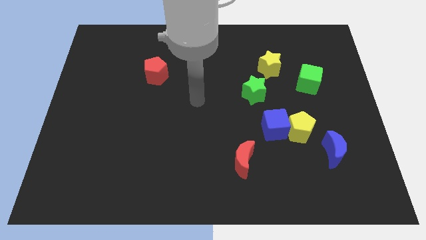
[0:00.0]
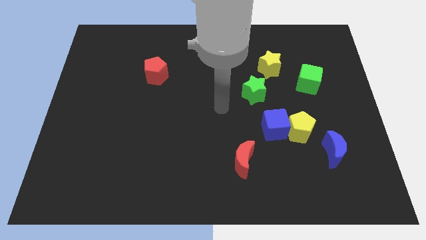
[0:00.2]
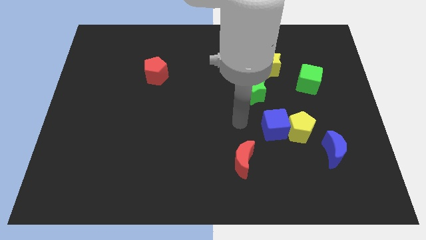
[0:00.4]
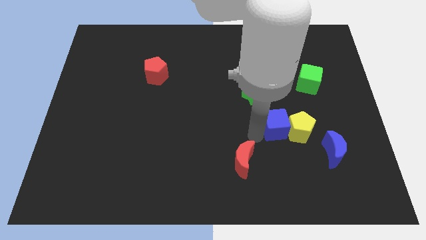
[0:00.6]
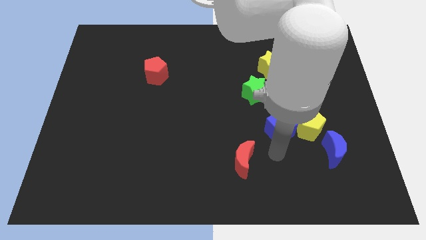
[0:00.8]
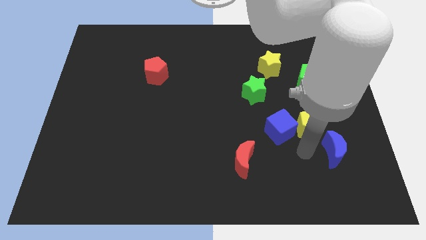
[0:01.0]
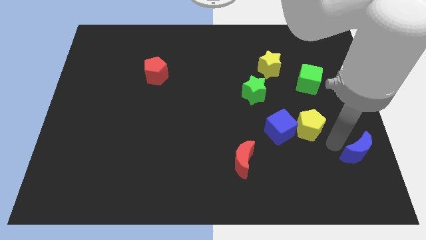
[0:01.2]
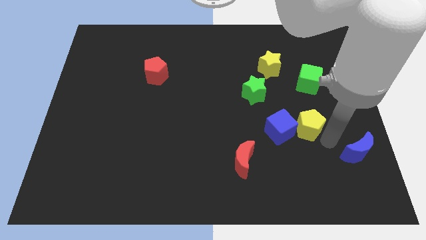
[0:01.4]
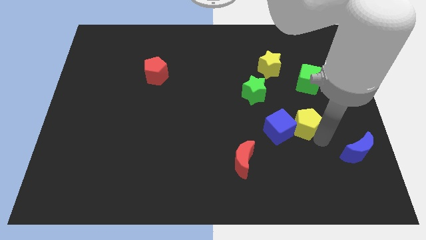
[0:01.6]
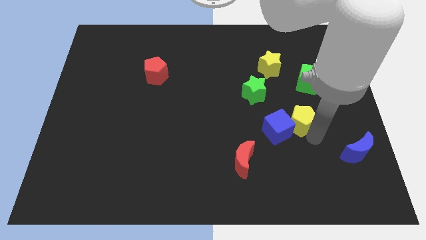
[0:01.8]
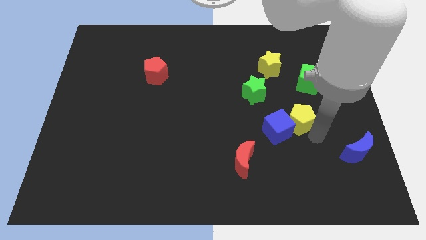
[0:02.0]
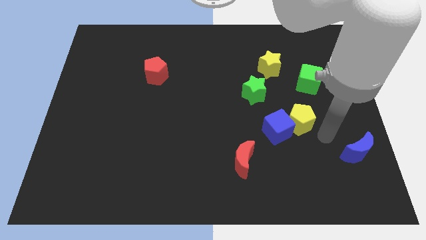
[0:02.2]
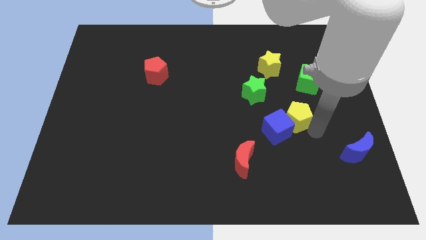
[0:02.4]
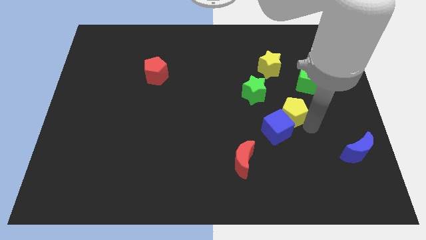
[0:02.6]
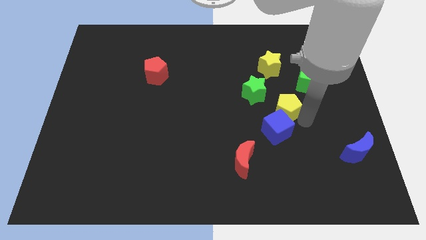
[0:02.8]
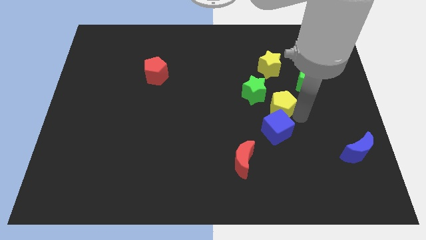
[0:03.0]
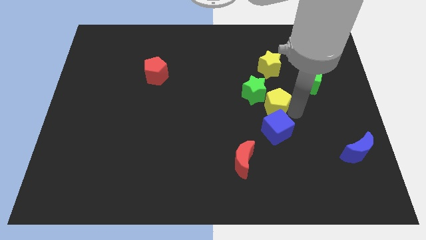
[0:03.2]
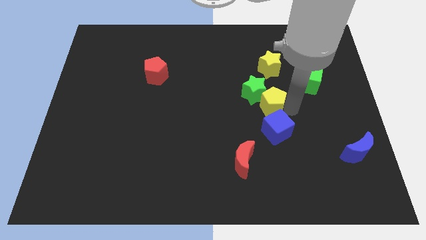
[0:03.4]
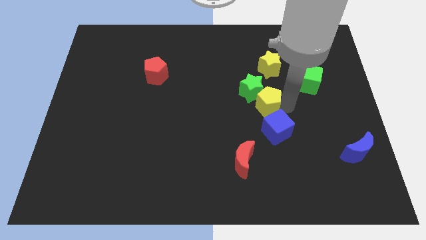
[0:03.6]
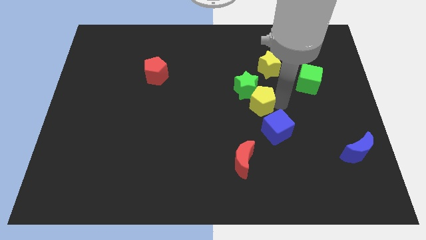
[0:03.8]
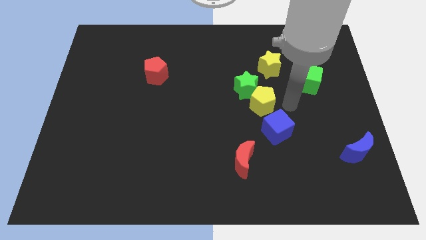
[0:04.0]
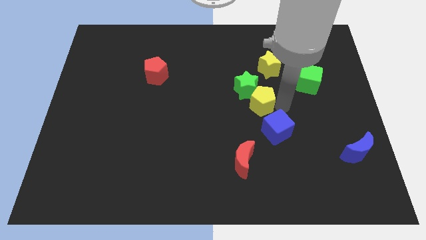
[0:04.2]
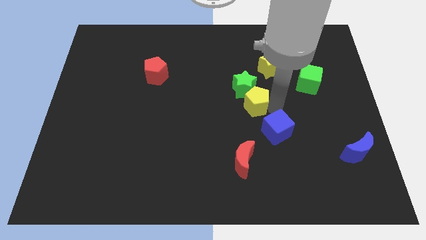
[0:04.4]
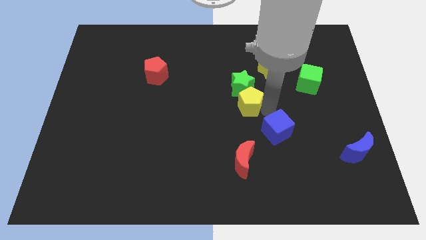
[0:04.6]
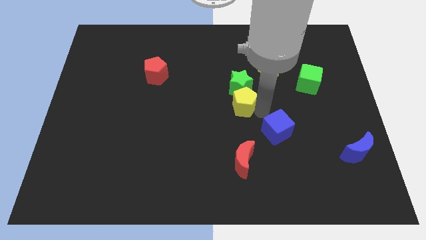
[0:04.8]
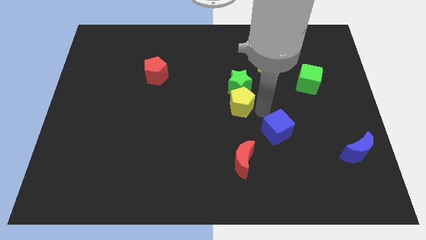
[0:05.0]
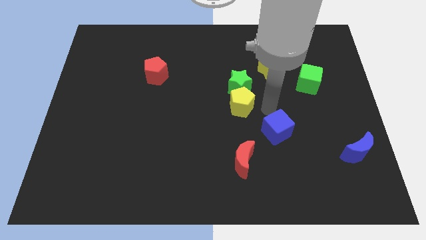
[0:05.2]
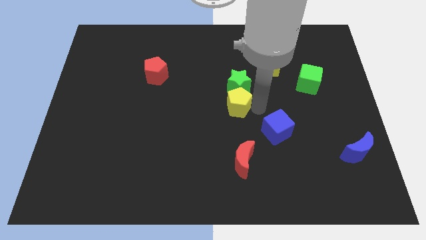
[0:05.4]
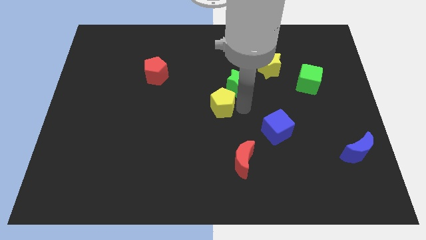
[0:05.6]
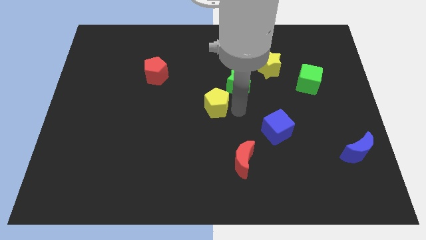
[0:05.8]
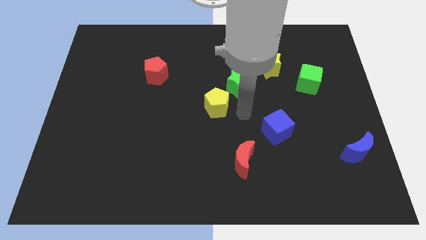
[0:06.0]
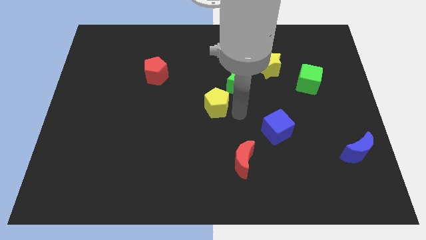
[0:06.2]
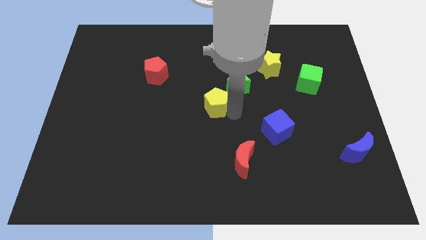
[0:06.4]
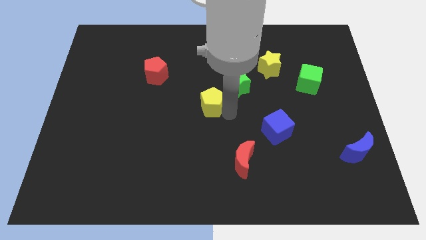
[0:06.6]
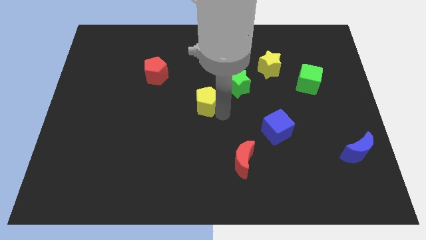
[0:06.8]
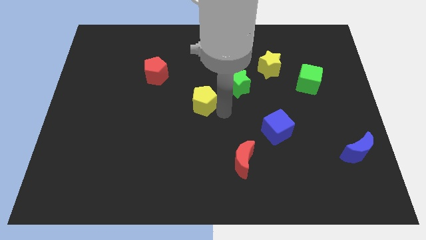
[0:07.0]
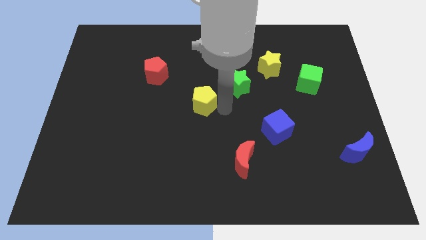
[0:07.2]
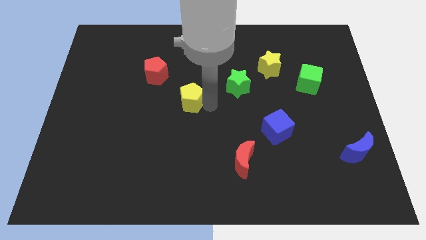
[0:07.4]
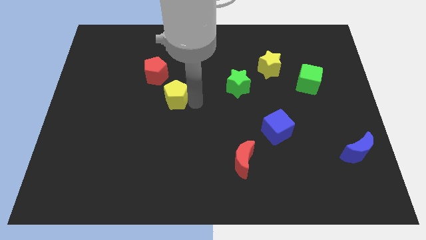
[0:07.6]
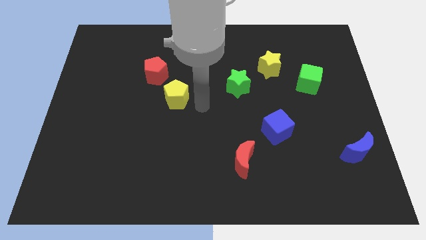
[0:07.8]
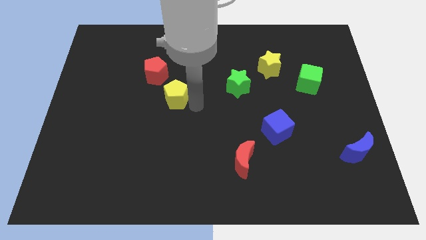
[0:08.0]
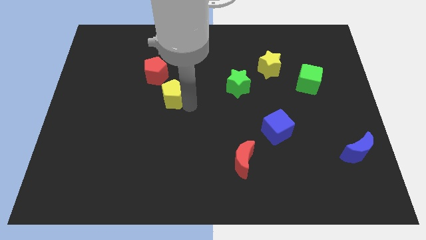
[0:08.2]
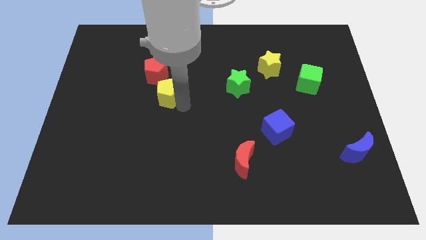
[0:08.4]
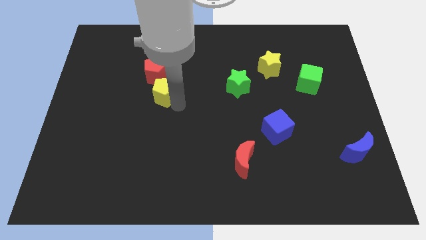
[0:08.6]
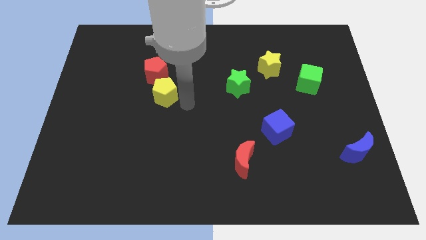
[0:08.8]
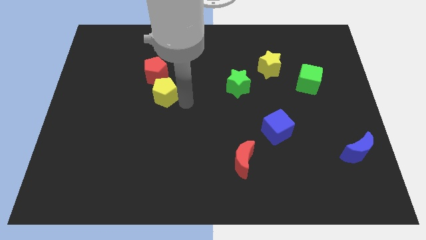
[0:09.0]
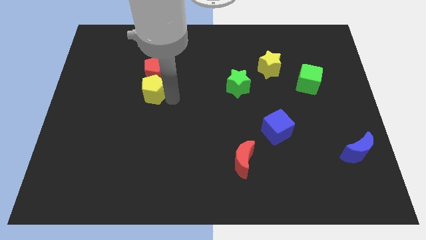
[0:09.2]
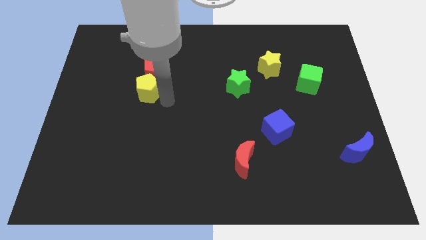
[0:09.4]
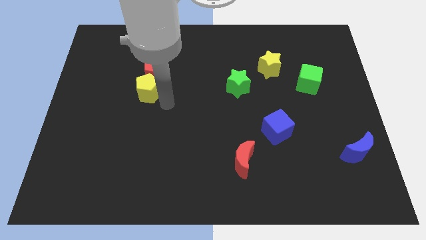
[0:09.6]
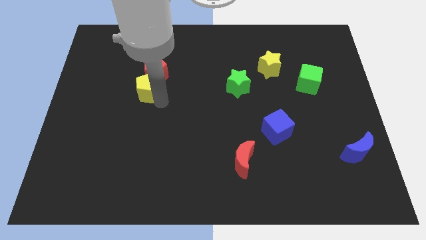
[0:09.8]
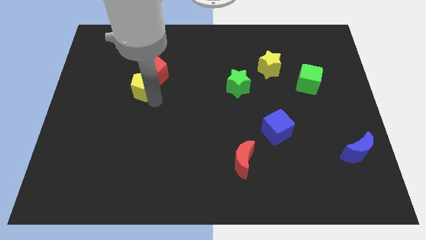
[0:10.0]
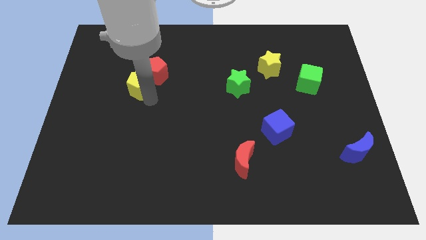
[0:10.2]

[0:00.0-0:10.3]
put the yellow pentagon to the left of the red pentagon

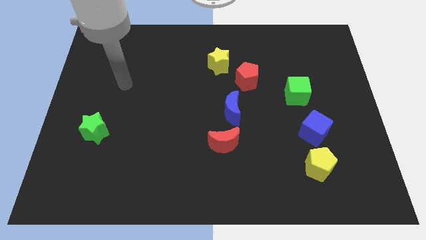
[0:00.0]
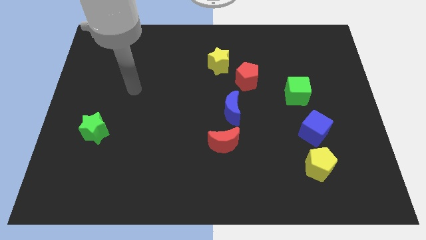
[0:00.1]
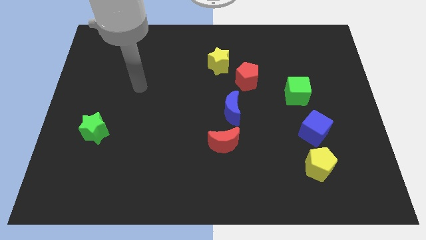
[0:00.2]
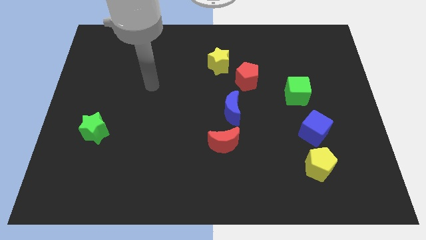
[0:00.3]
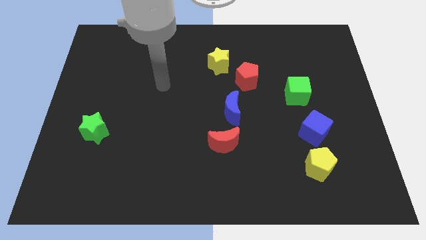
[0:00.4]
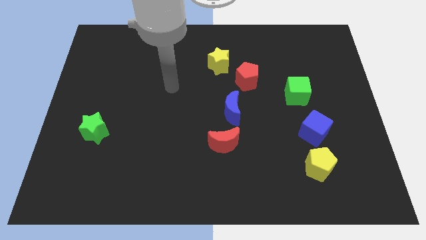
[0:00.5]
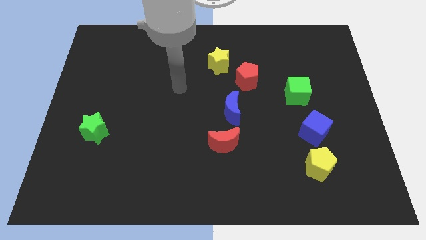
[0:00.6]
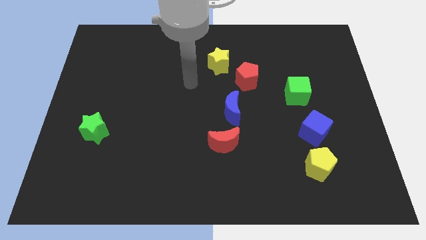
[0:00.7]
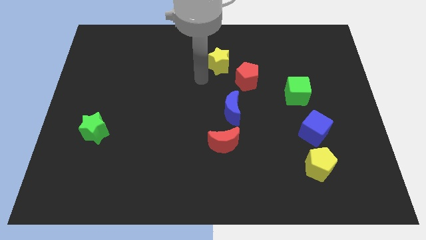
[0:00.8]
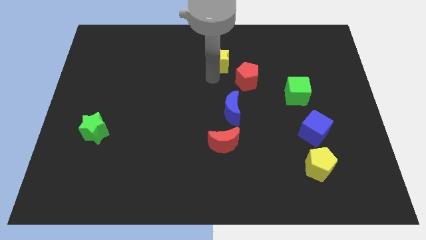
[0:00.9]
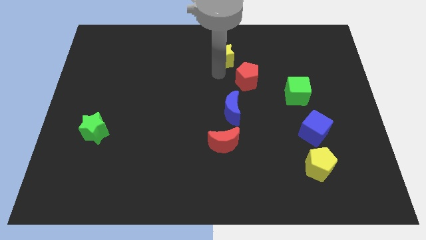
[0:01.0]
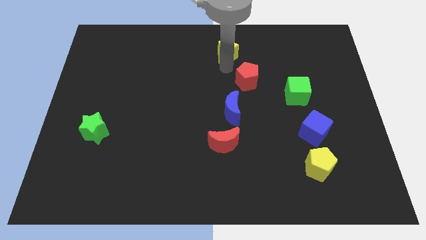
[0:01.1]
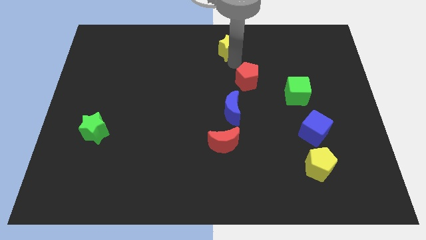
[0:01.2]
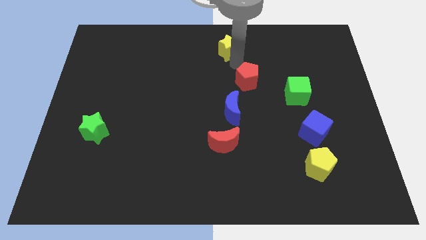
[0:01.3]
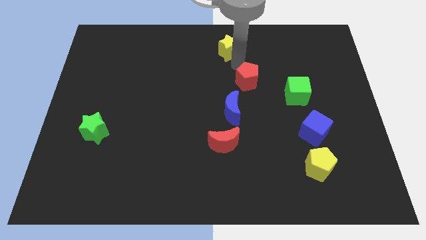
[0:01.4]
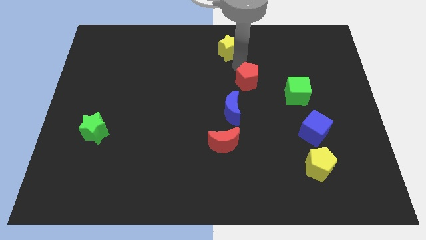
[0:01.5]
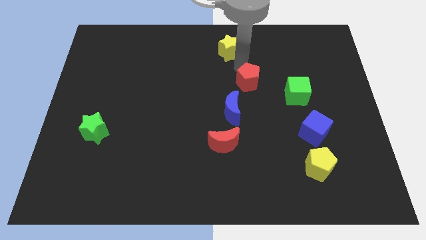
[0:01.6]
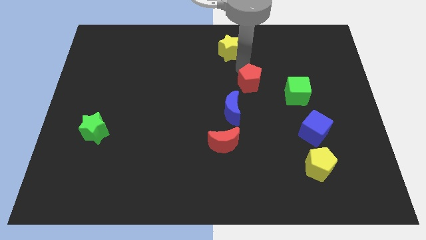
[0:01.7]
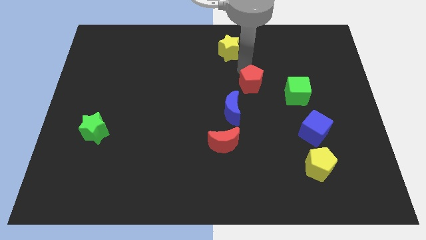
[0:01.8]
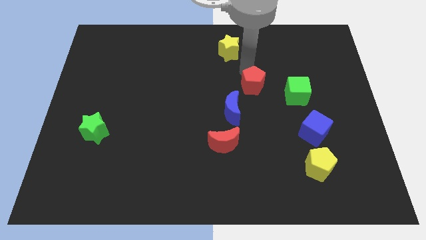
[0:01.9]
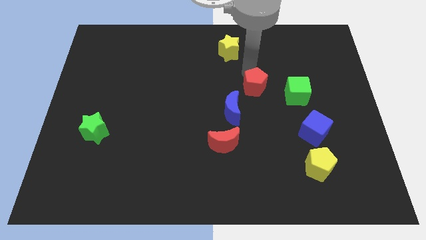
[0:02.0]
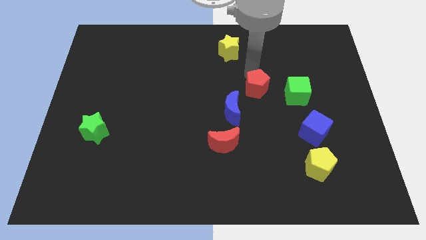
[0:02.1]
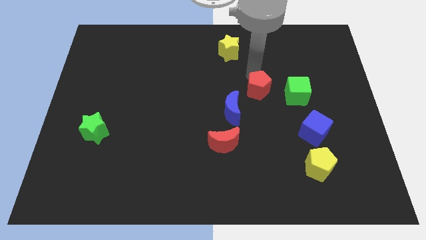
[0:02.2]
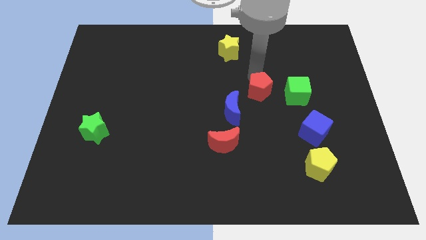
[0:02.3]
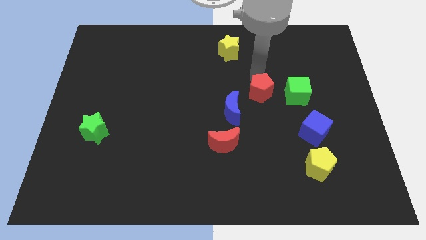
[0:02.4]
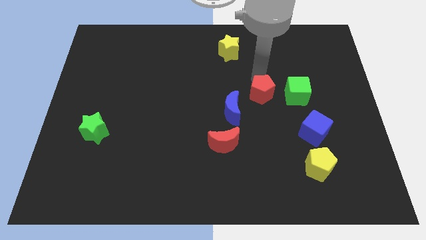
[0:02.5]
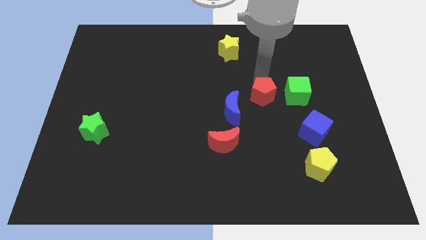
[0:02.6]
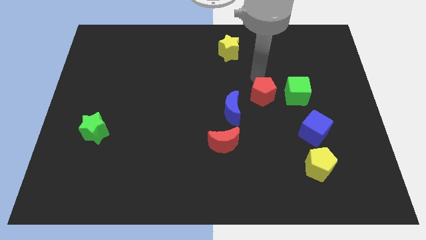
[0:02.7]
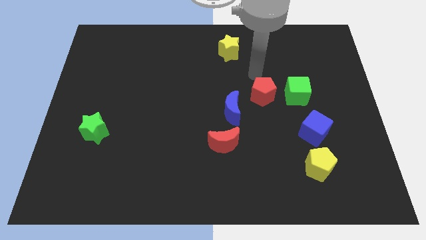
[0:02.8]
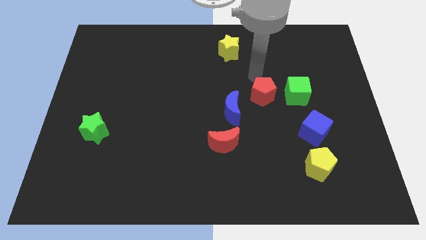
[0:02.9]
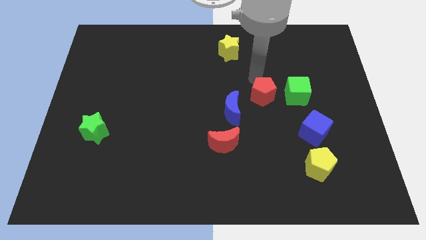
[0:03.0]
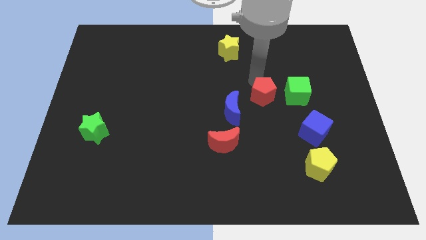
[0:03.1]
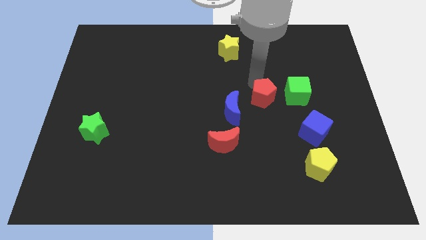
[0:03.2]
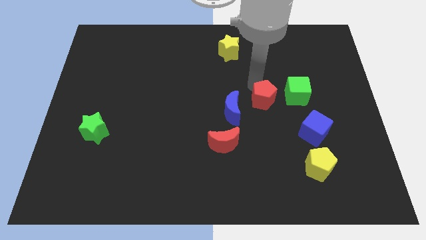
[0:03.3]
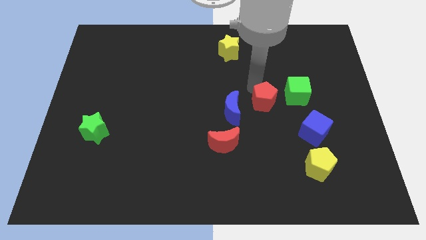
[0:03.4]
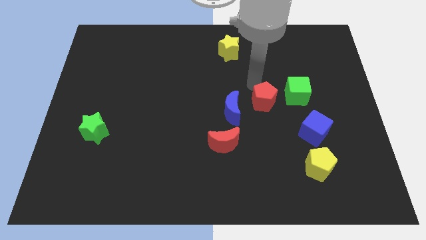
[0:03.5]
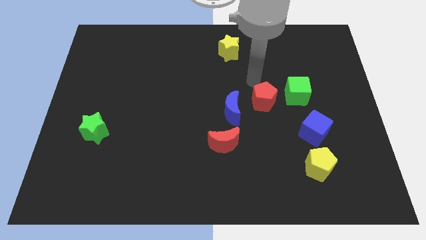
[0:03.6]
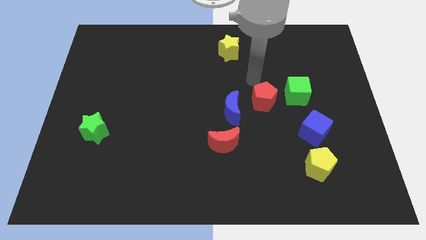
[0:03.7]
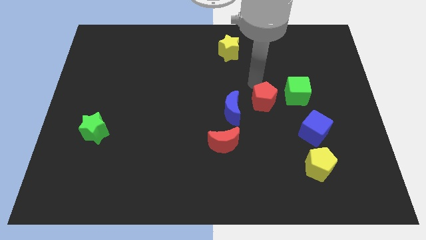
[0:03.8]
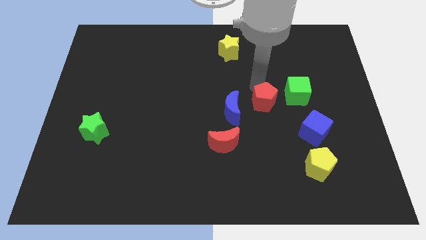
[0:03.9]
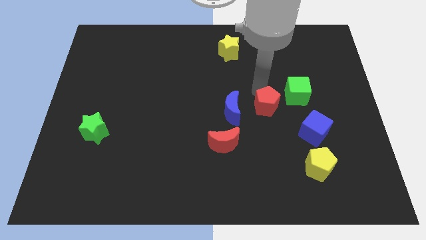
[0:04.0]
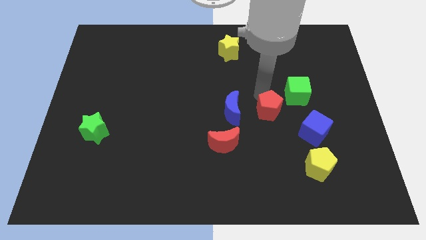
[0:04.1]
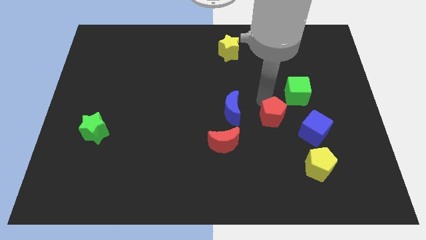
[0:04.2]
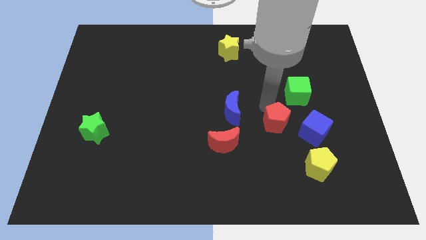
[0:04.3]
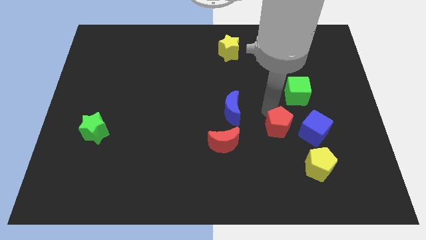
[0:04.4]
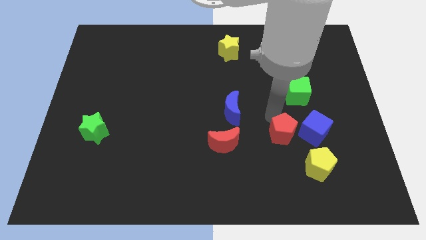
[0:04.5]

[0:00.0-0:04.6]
move the red pentagon to the bottom left of the blue cube
